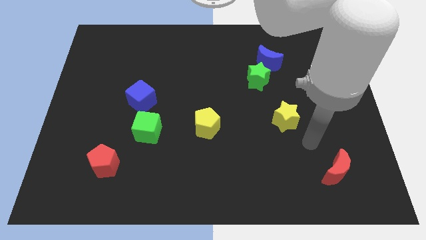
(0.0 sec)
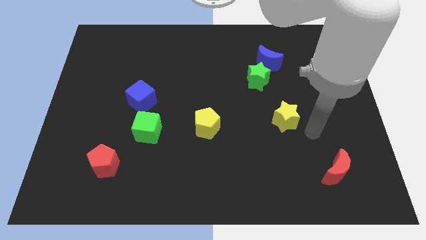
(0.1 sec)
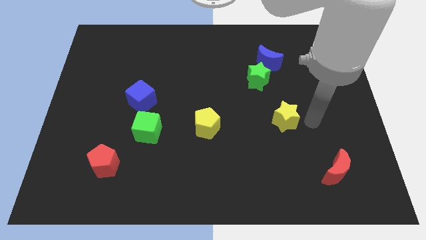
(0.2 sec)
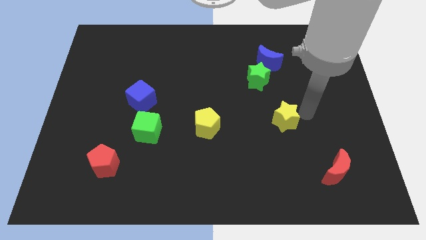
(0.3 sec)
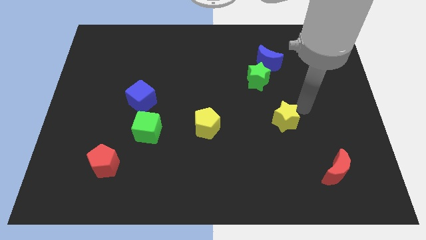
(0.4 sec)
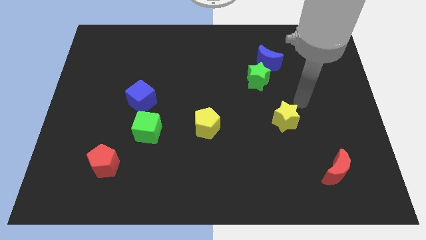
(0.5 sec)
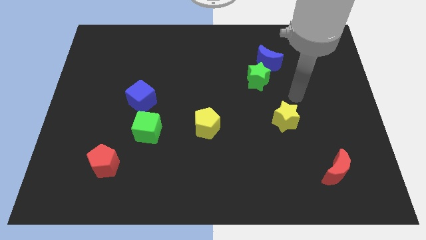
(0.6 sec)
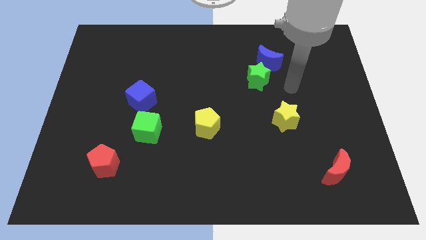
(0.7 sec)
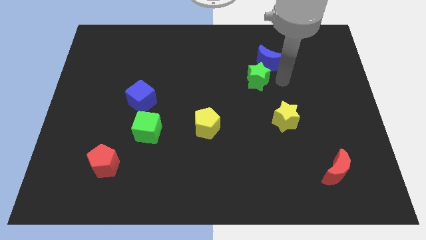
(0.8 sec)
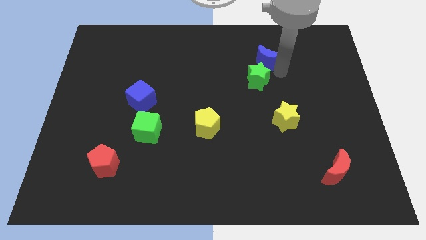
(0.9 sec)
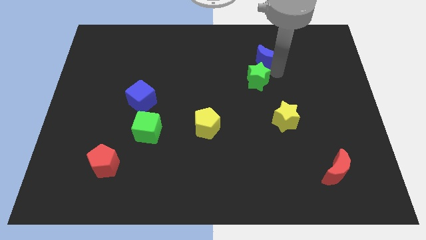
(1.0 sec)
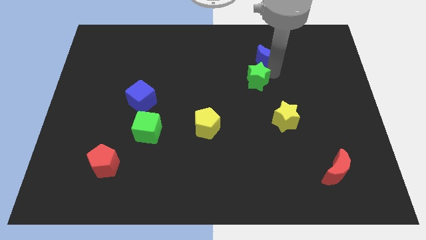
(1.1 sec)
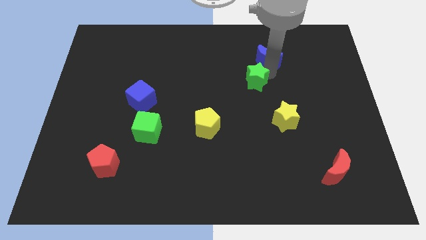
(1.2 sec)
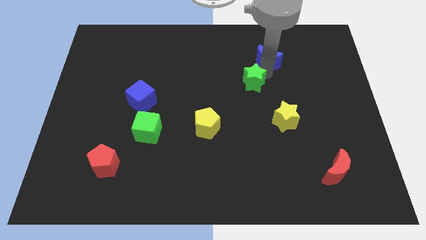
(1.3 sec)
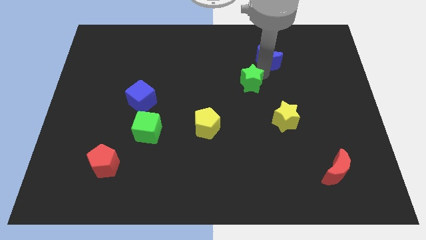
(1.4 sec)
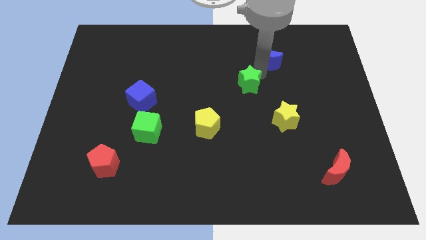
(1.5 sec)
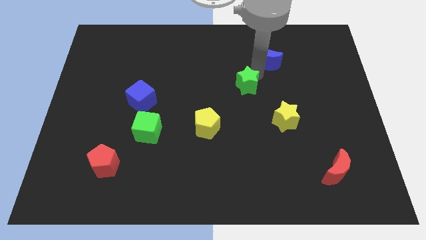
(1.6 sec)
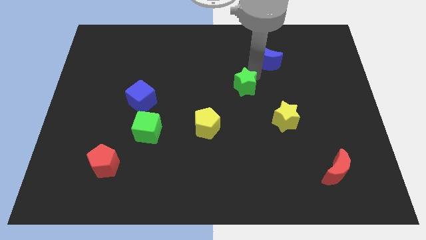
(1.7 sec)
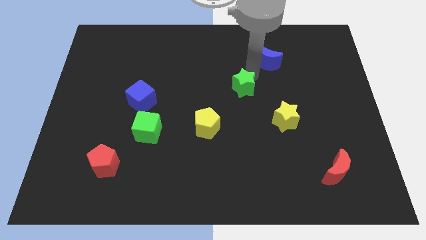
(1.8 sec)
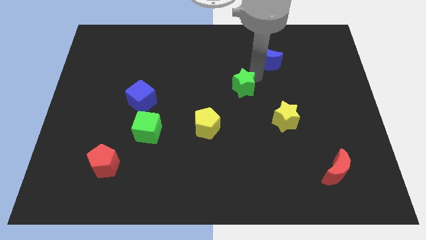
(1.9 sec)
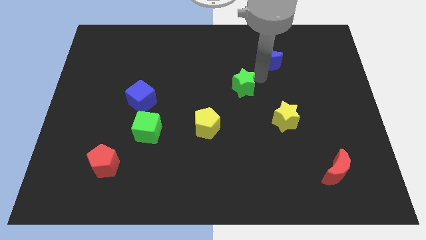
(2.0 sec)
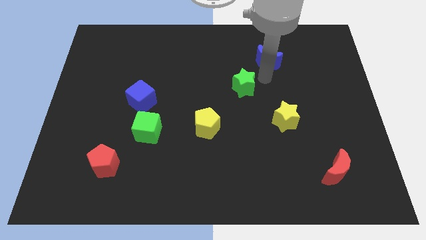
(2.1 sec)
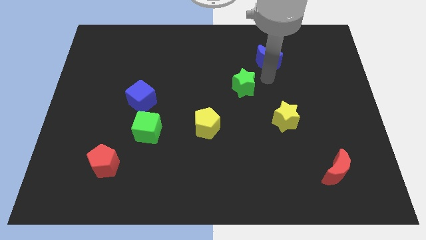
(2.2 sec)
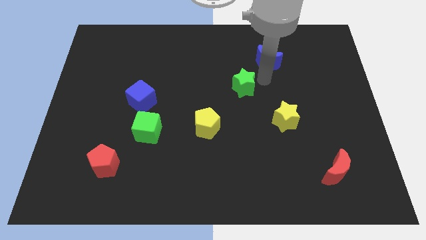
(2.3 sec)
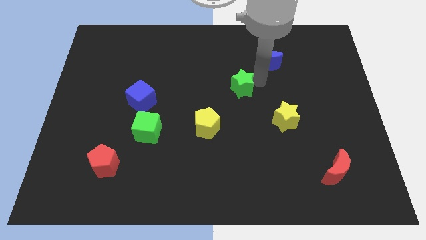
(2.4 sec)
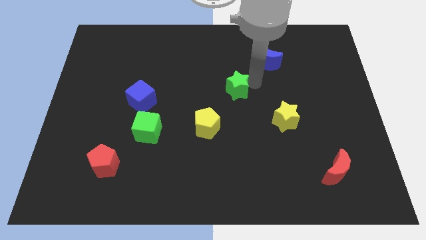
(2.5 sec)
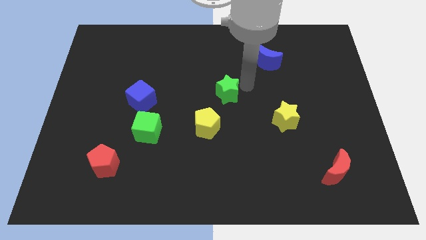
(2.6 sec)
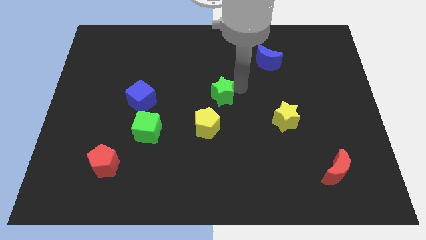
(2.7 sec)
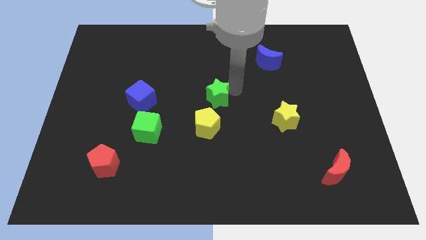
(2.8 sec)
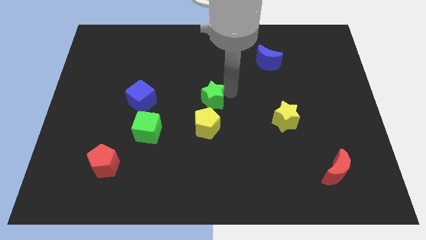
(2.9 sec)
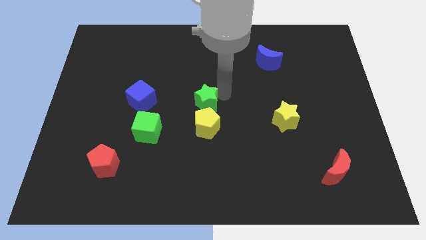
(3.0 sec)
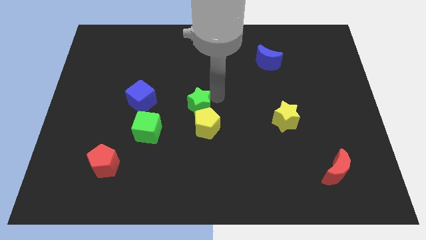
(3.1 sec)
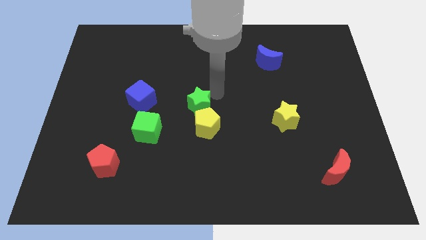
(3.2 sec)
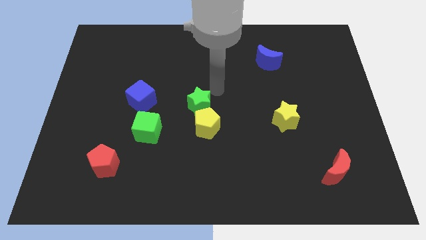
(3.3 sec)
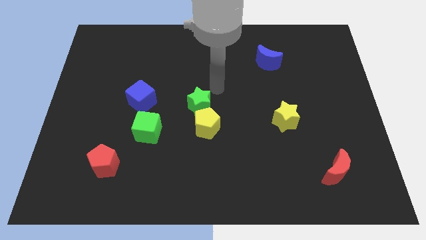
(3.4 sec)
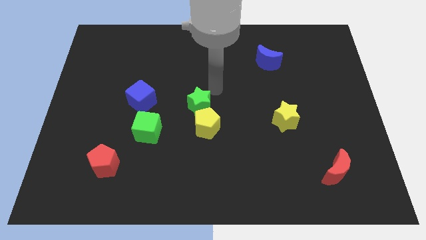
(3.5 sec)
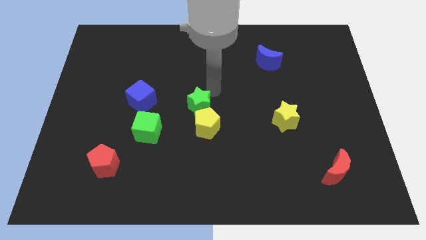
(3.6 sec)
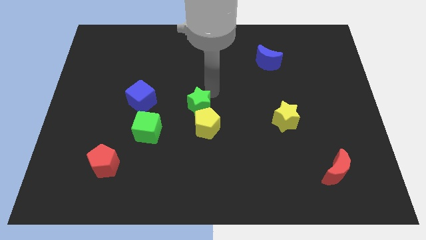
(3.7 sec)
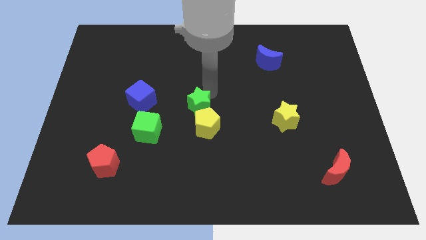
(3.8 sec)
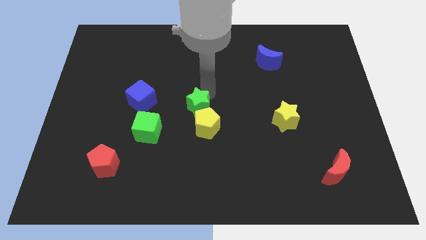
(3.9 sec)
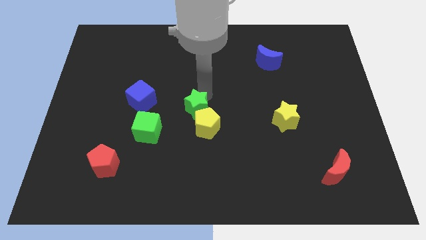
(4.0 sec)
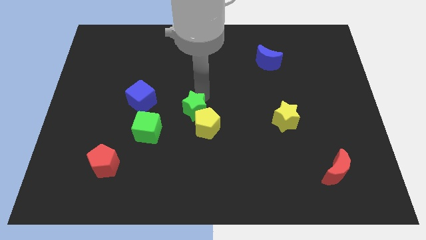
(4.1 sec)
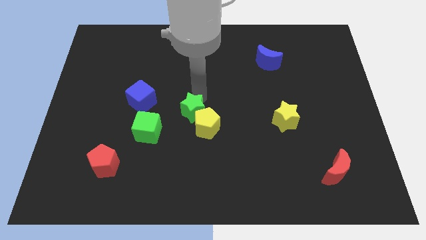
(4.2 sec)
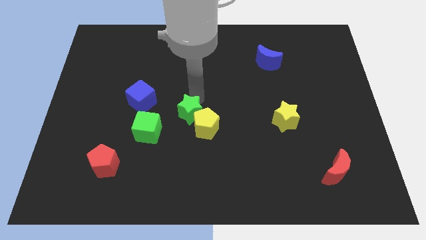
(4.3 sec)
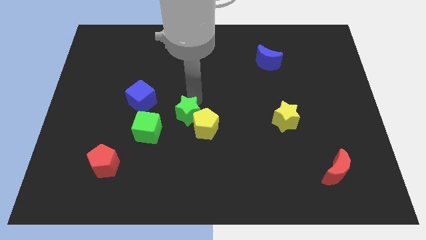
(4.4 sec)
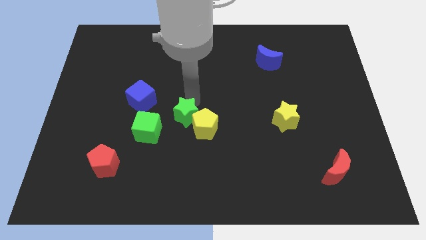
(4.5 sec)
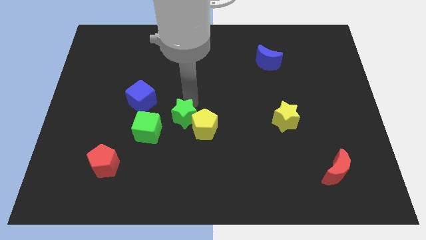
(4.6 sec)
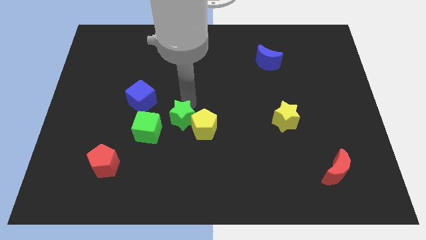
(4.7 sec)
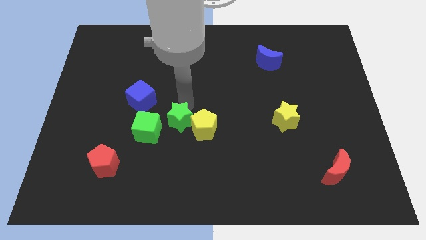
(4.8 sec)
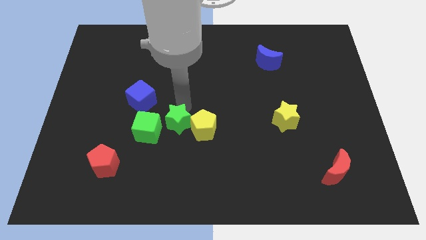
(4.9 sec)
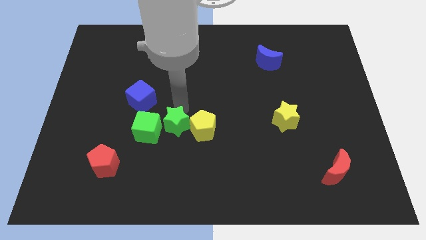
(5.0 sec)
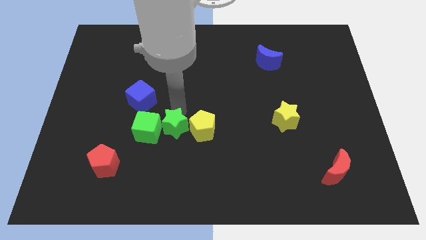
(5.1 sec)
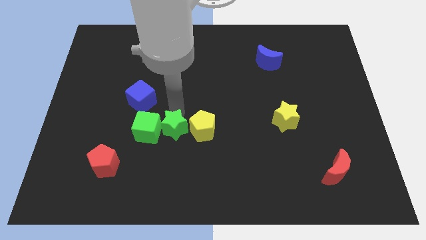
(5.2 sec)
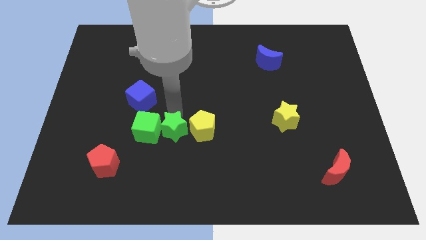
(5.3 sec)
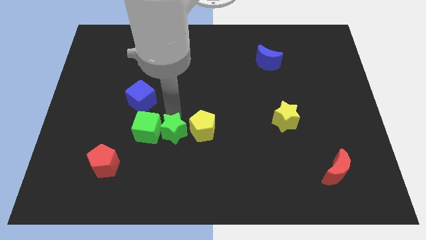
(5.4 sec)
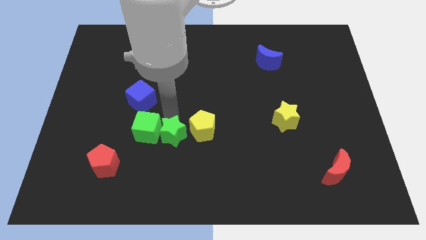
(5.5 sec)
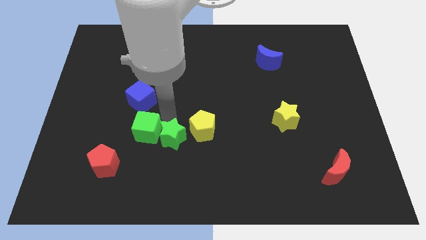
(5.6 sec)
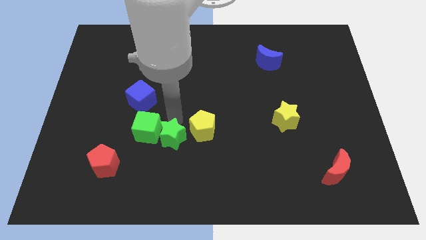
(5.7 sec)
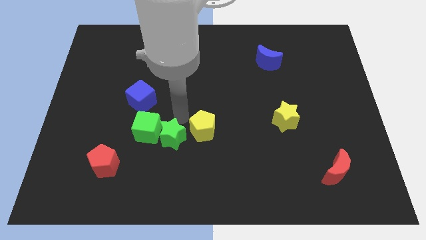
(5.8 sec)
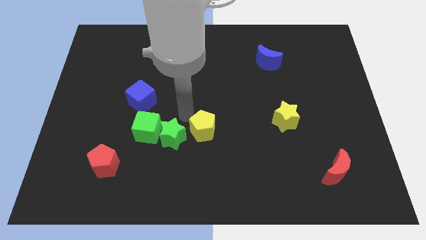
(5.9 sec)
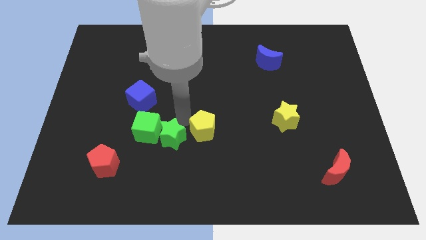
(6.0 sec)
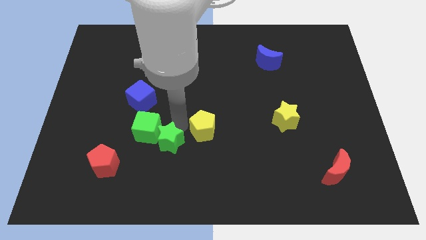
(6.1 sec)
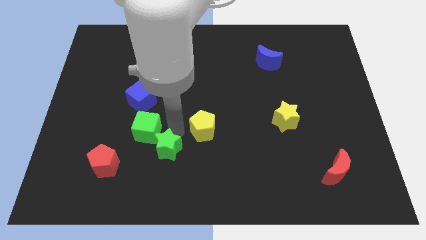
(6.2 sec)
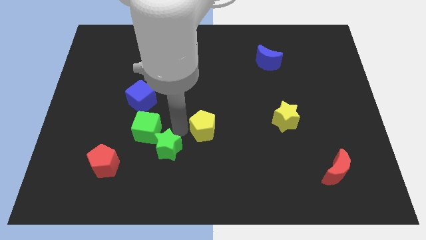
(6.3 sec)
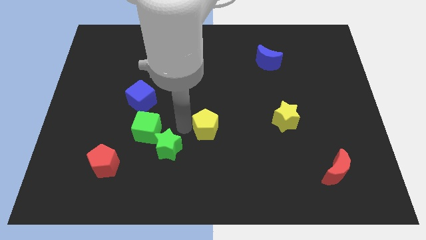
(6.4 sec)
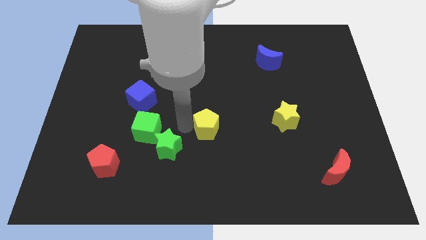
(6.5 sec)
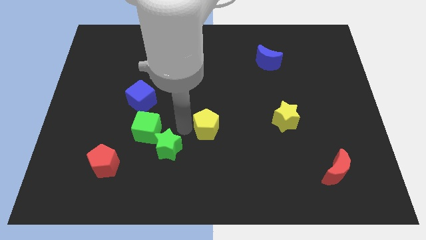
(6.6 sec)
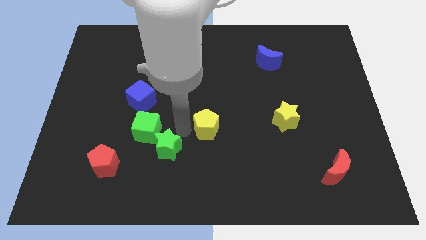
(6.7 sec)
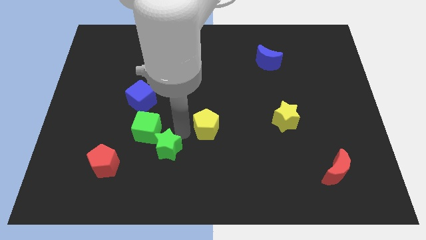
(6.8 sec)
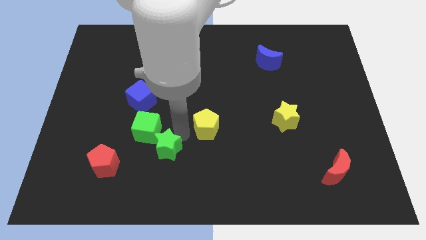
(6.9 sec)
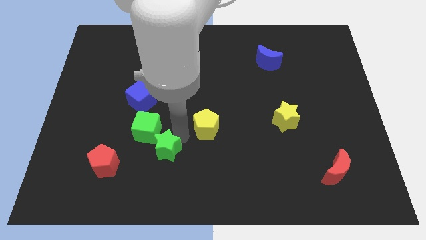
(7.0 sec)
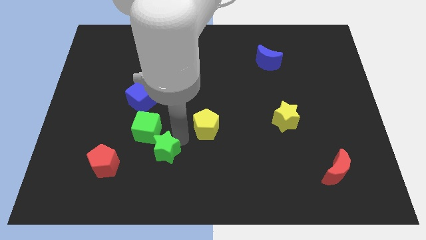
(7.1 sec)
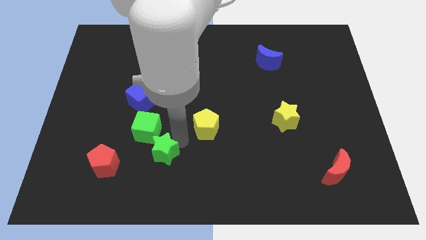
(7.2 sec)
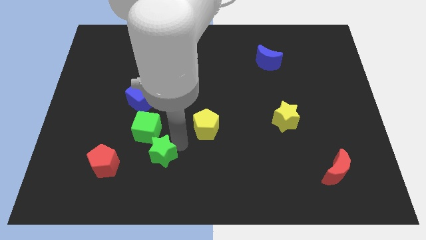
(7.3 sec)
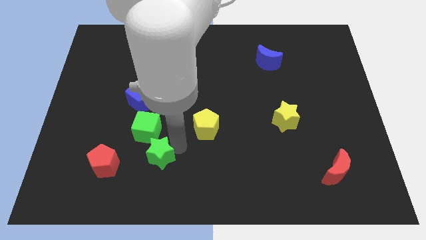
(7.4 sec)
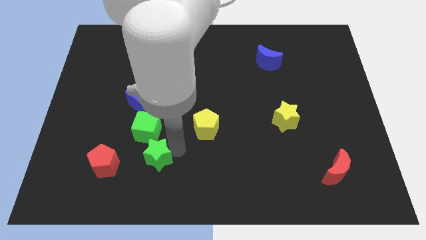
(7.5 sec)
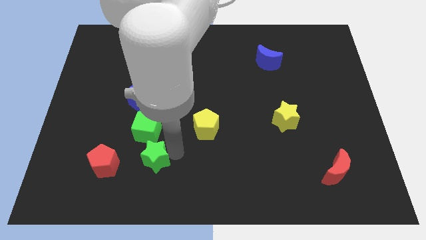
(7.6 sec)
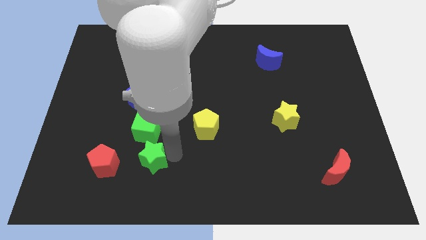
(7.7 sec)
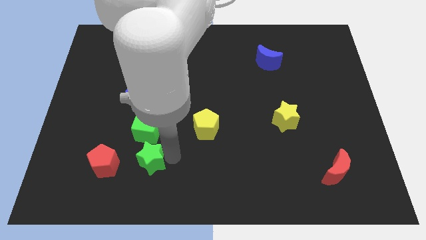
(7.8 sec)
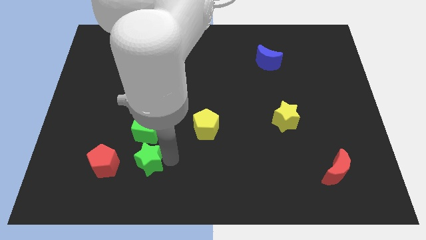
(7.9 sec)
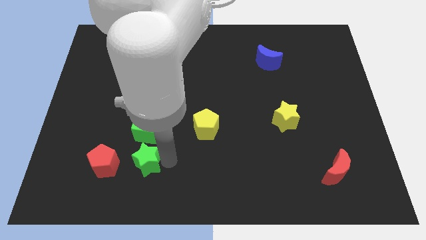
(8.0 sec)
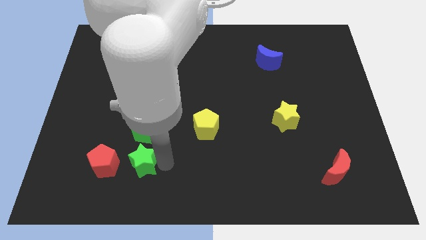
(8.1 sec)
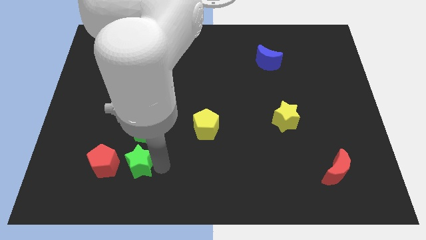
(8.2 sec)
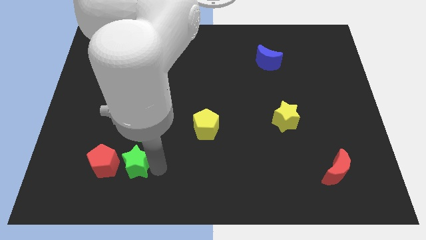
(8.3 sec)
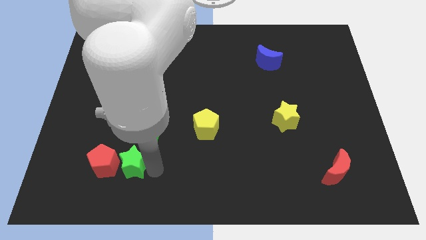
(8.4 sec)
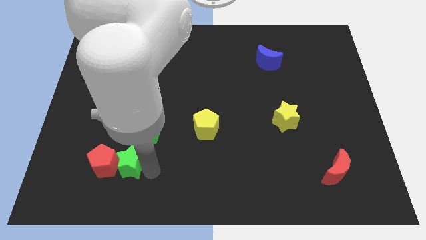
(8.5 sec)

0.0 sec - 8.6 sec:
slide the green star to the red pentagon
